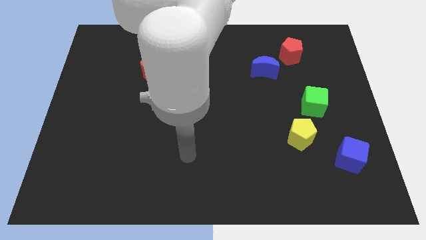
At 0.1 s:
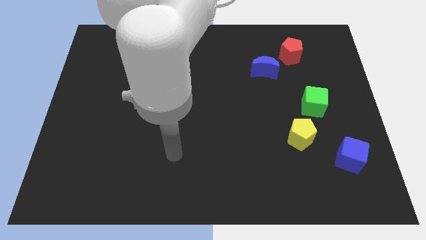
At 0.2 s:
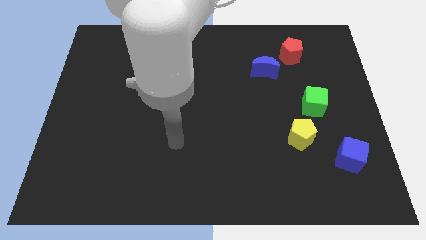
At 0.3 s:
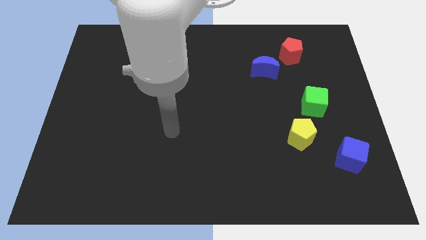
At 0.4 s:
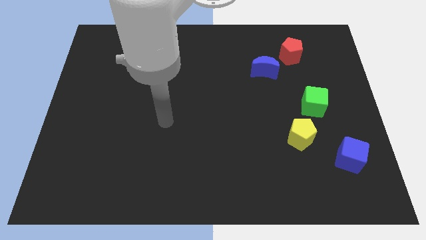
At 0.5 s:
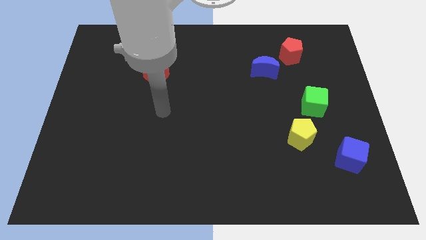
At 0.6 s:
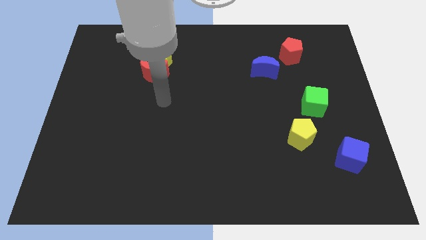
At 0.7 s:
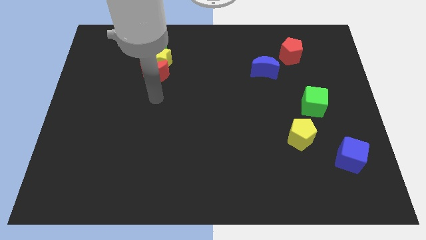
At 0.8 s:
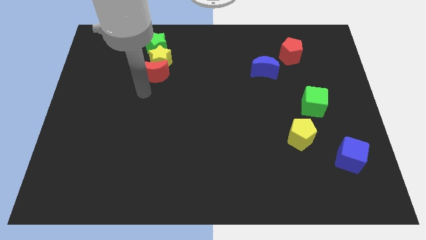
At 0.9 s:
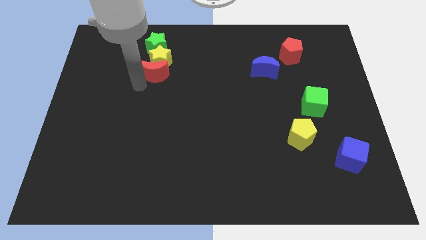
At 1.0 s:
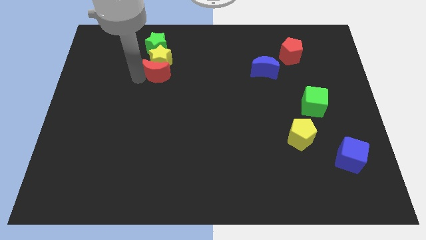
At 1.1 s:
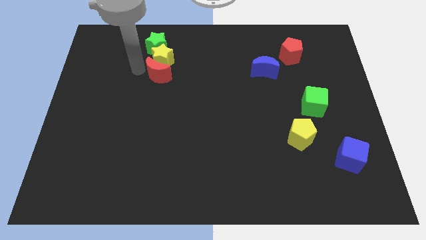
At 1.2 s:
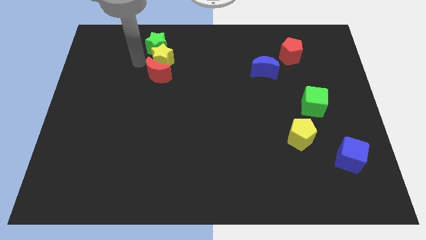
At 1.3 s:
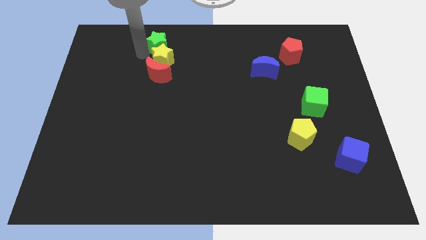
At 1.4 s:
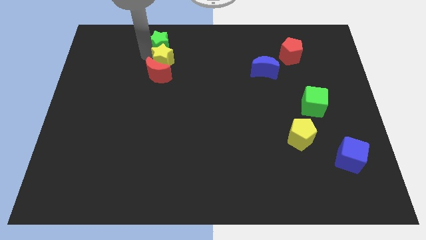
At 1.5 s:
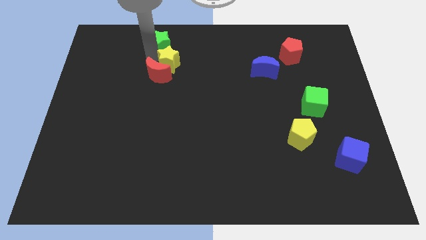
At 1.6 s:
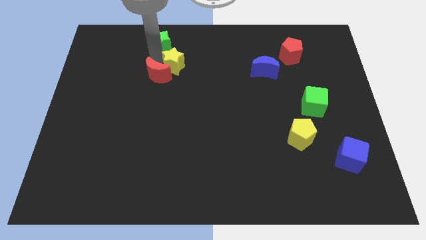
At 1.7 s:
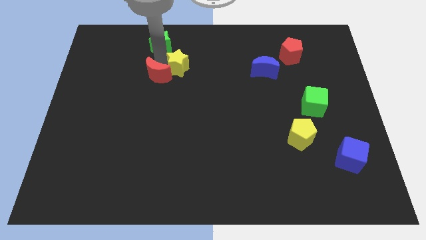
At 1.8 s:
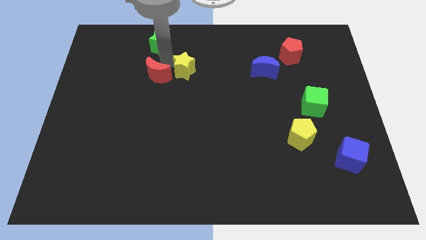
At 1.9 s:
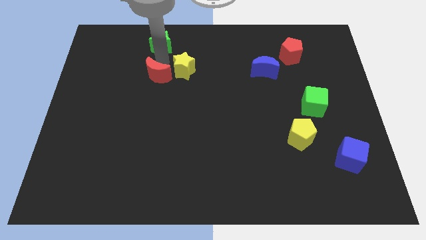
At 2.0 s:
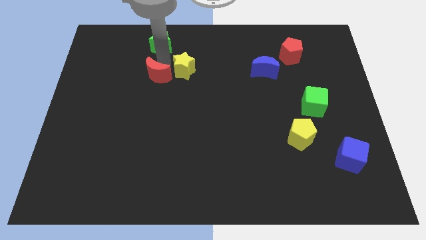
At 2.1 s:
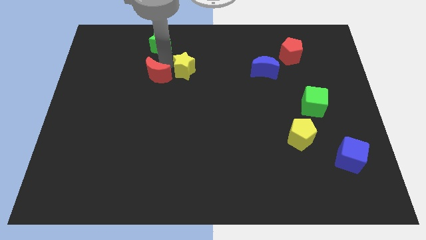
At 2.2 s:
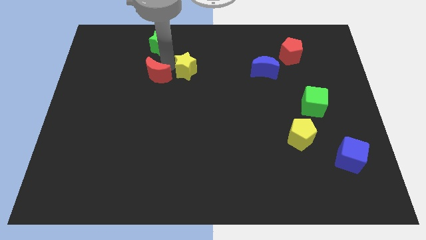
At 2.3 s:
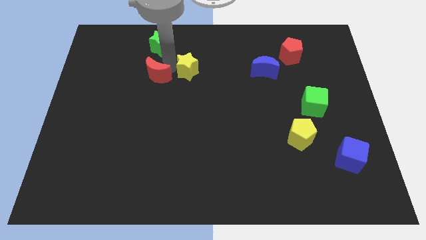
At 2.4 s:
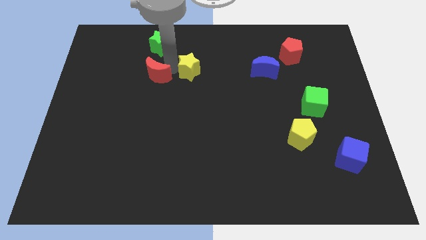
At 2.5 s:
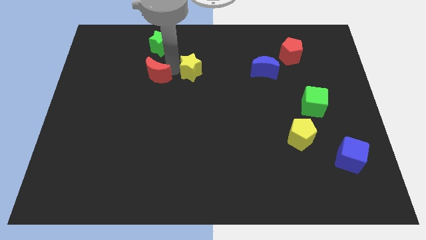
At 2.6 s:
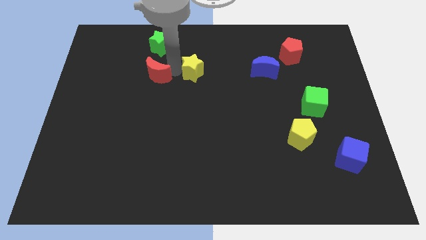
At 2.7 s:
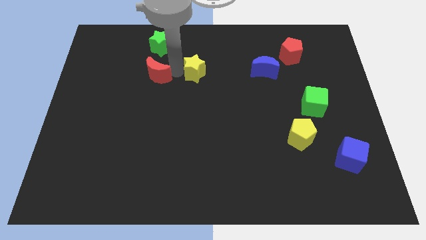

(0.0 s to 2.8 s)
move the yellow star away from the red moon and green star

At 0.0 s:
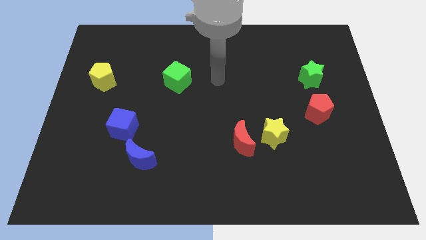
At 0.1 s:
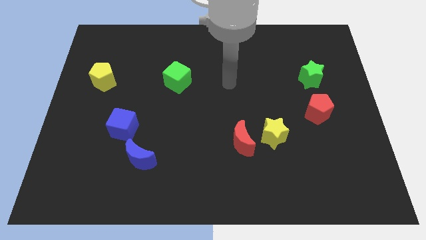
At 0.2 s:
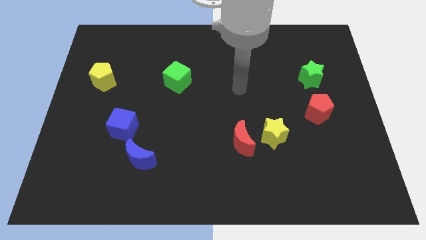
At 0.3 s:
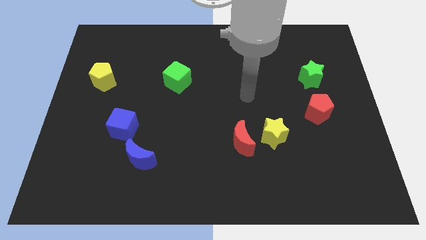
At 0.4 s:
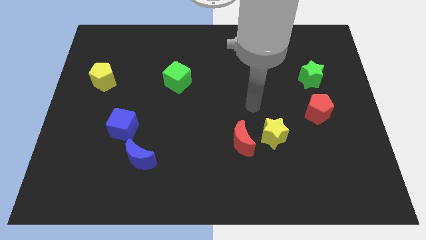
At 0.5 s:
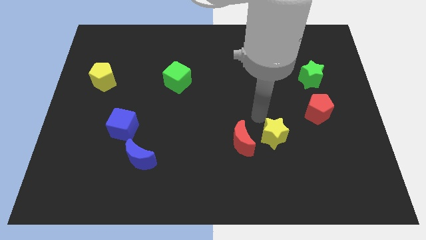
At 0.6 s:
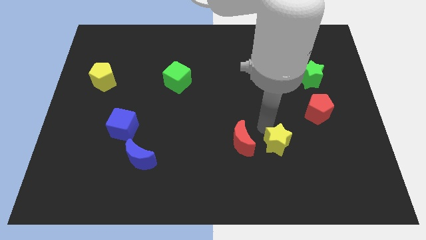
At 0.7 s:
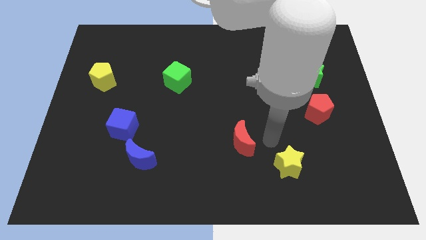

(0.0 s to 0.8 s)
move the red moon away from the yellow star

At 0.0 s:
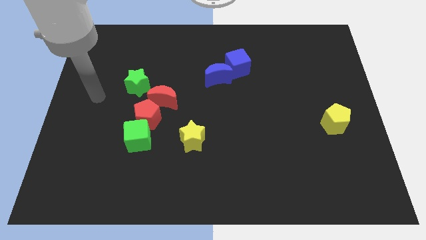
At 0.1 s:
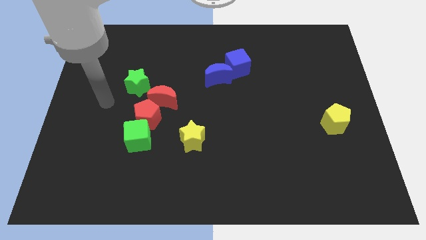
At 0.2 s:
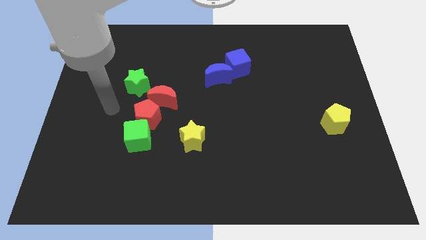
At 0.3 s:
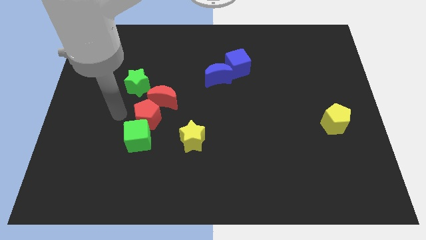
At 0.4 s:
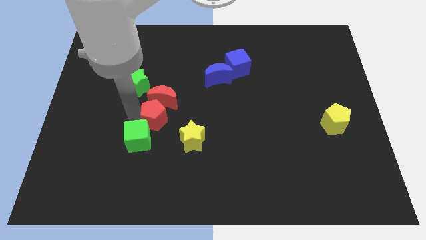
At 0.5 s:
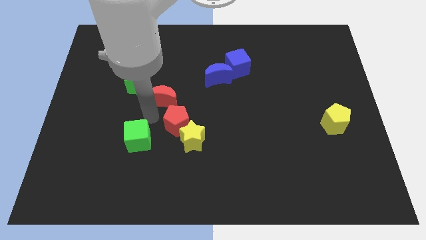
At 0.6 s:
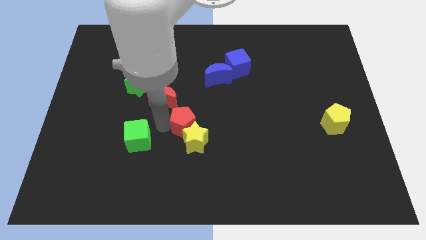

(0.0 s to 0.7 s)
move the green cube away from the red pentagon

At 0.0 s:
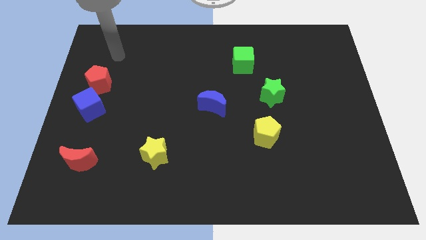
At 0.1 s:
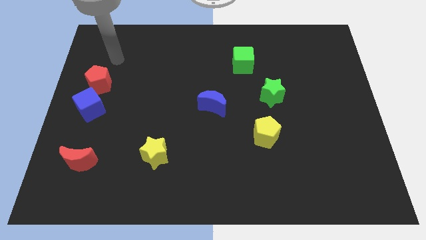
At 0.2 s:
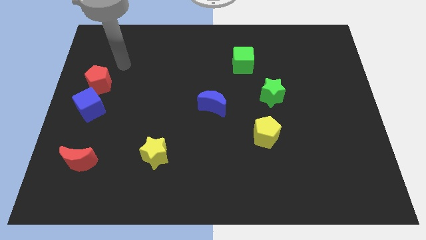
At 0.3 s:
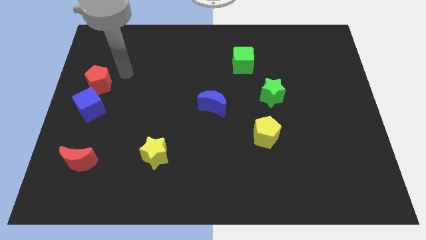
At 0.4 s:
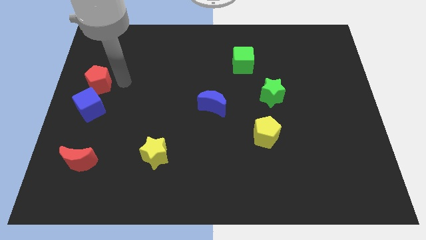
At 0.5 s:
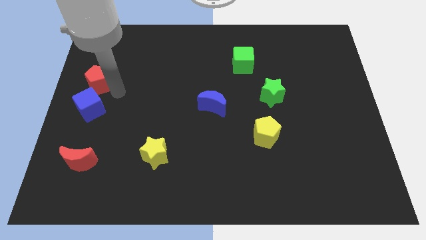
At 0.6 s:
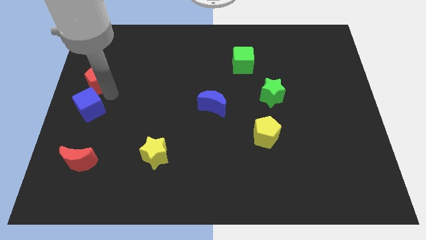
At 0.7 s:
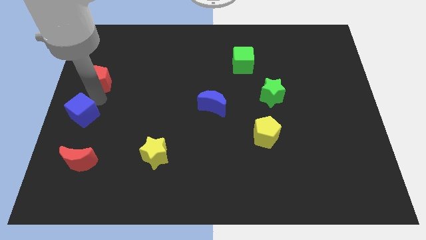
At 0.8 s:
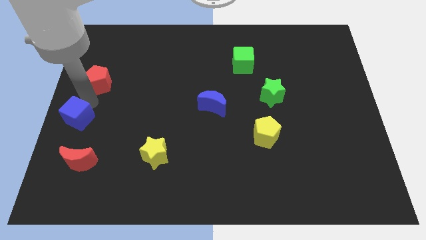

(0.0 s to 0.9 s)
move the red pentagon away from the blue cube

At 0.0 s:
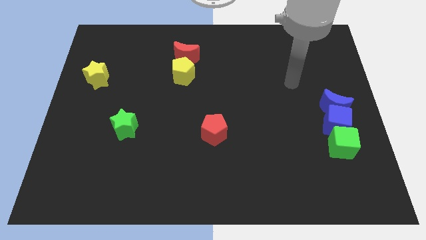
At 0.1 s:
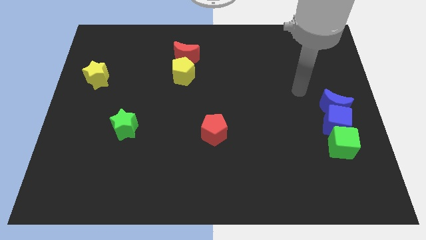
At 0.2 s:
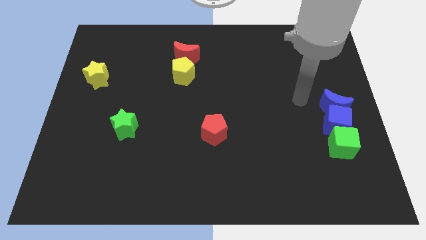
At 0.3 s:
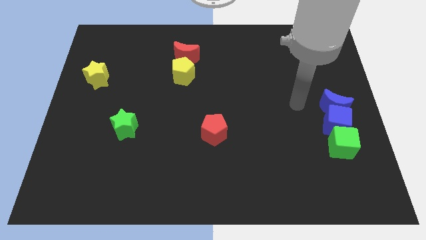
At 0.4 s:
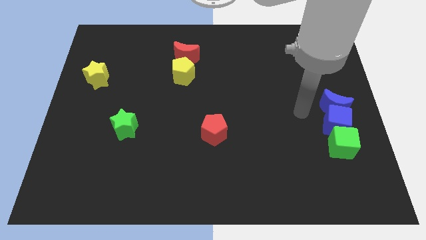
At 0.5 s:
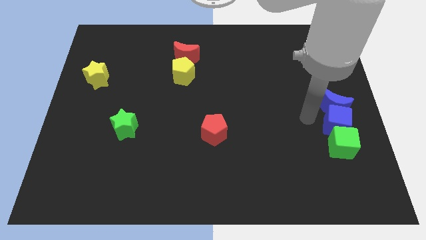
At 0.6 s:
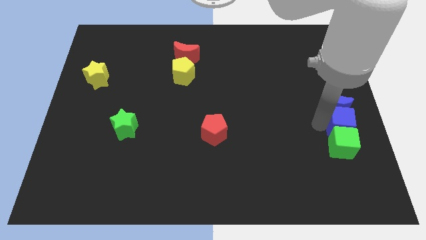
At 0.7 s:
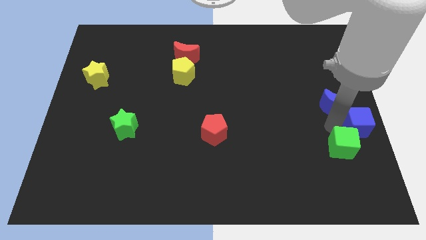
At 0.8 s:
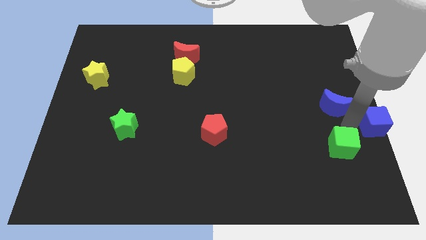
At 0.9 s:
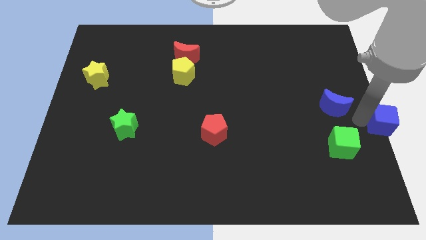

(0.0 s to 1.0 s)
separate the blue moon from the blue cube

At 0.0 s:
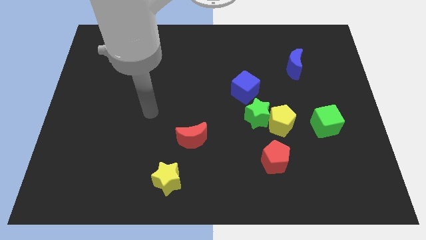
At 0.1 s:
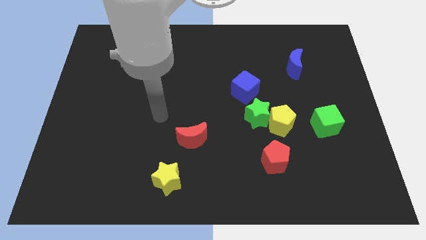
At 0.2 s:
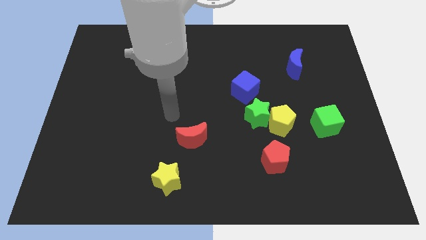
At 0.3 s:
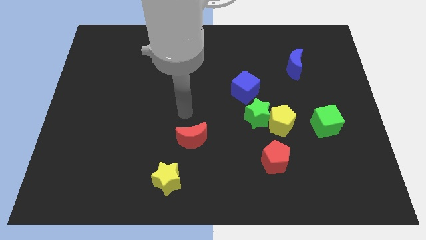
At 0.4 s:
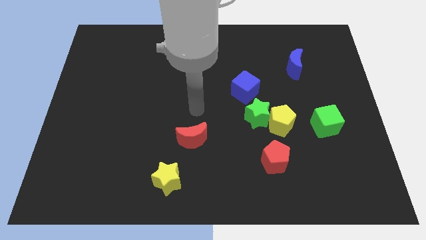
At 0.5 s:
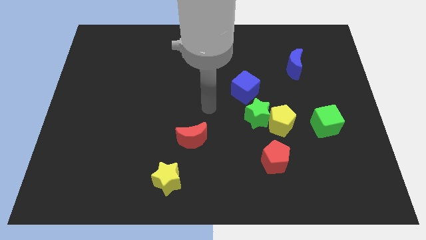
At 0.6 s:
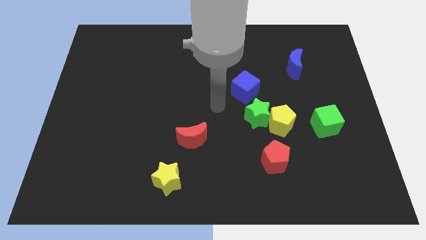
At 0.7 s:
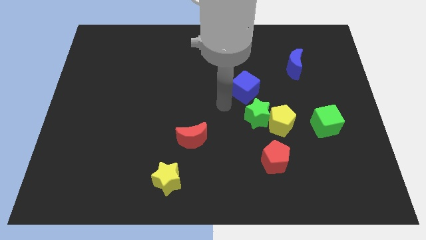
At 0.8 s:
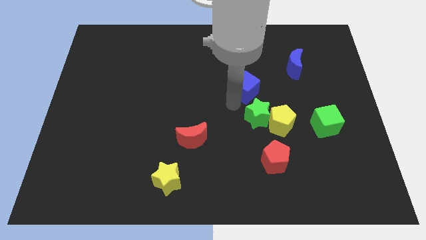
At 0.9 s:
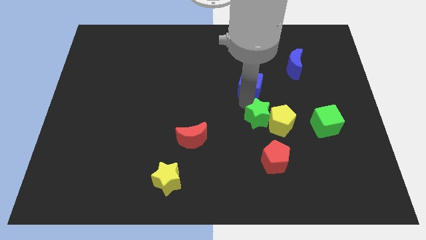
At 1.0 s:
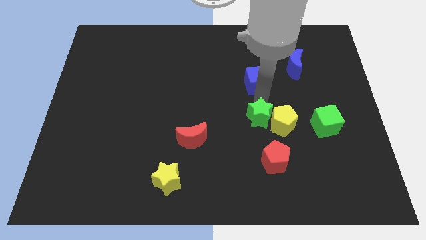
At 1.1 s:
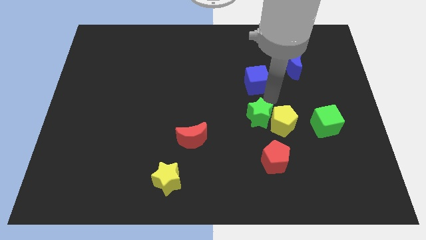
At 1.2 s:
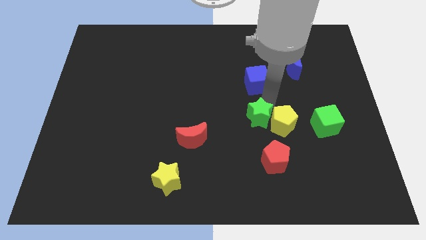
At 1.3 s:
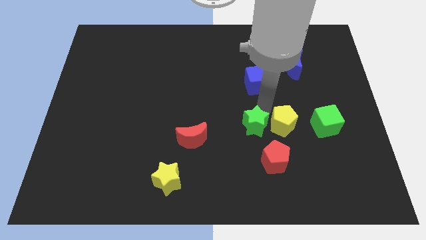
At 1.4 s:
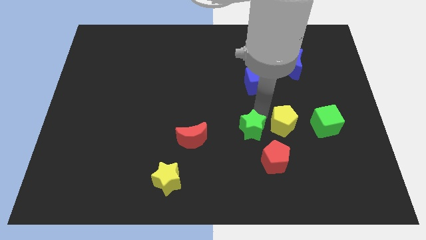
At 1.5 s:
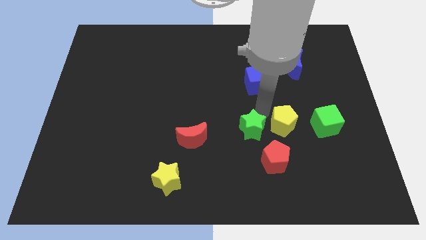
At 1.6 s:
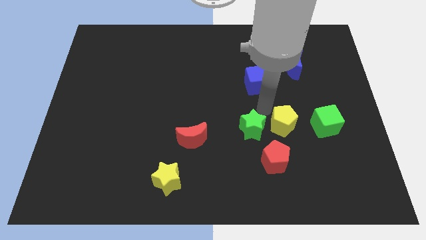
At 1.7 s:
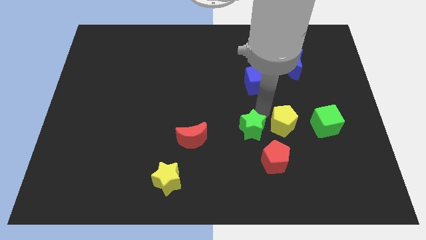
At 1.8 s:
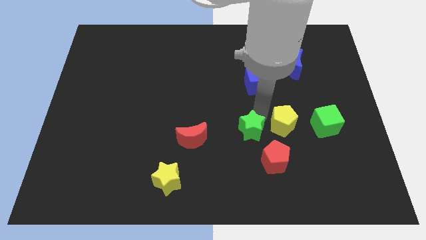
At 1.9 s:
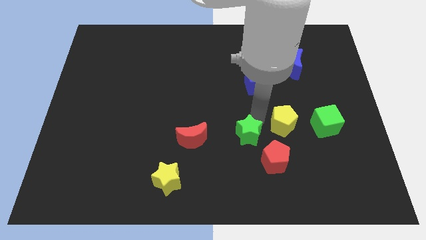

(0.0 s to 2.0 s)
separate the green star from the yellow pentagon and blue cube

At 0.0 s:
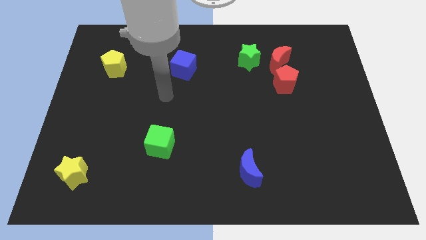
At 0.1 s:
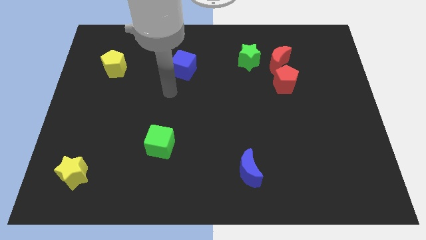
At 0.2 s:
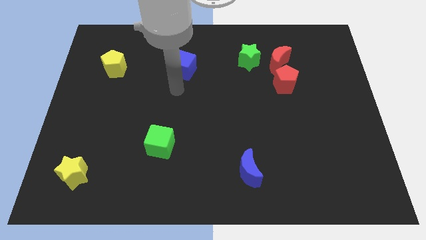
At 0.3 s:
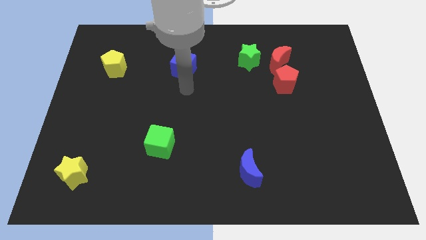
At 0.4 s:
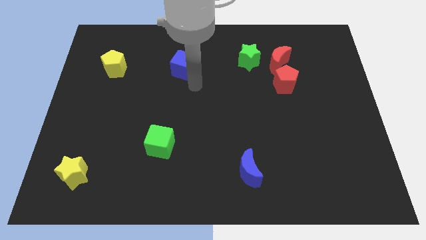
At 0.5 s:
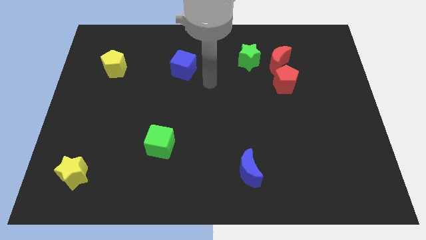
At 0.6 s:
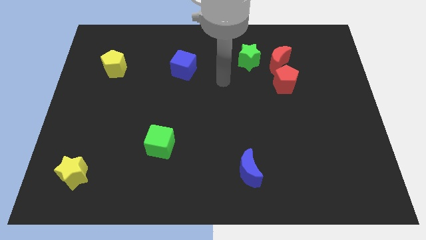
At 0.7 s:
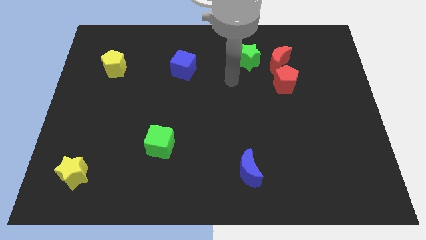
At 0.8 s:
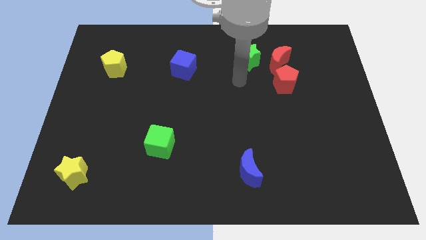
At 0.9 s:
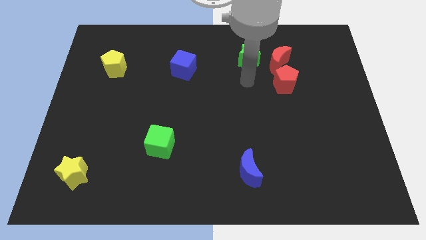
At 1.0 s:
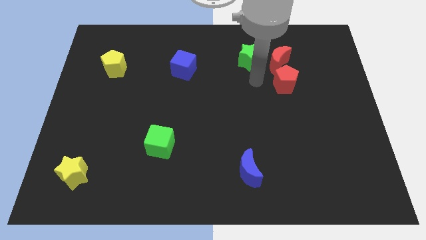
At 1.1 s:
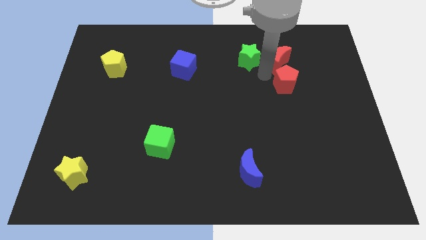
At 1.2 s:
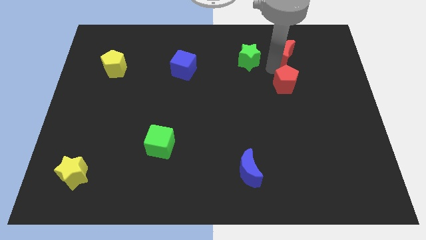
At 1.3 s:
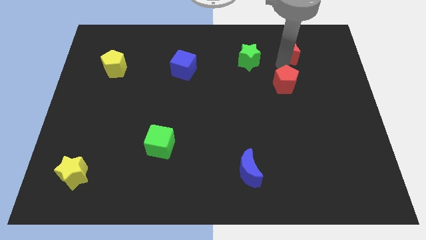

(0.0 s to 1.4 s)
pull the red pentagon apart from the red moon
